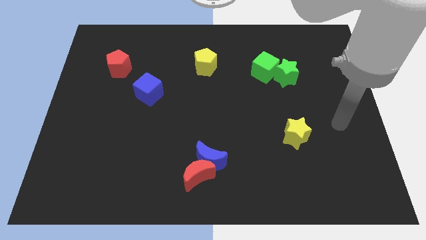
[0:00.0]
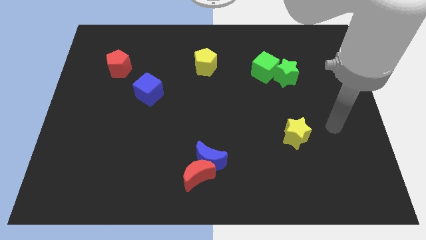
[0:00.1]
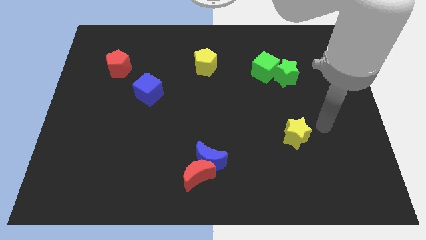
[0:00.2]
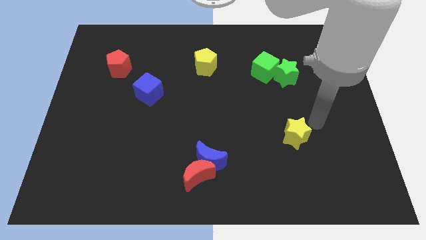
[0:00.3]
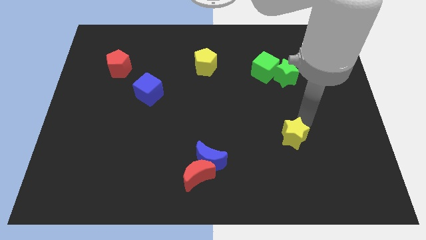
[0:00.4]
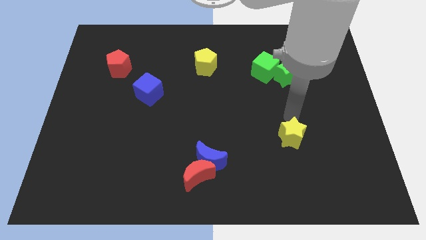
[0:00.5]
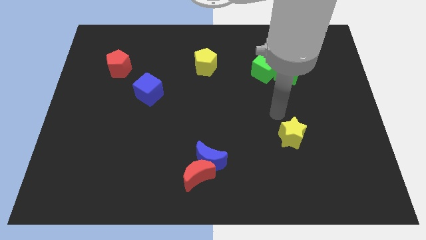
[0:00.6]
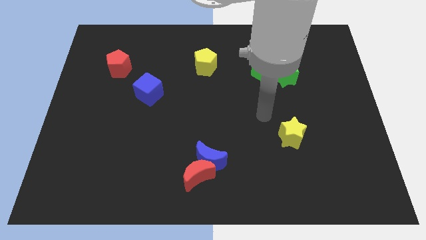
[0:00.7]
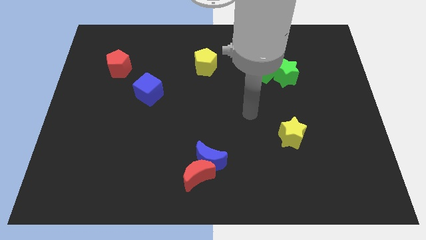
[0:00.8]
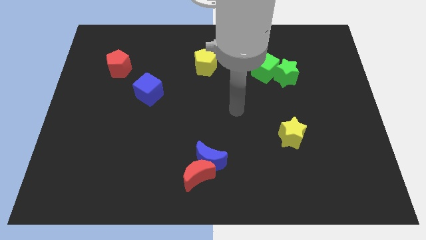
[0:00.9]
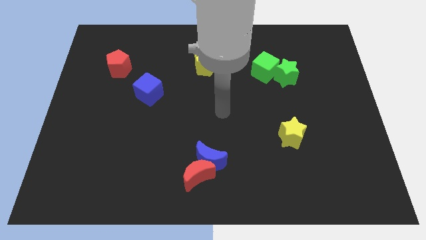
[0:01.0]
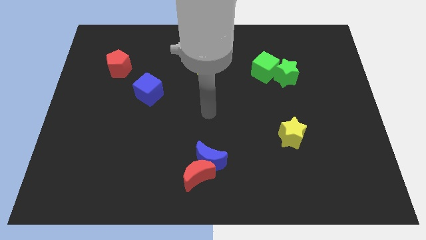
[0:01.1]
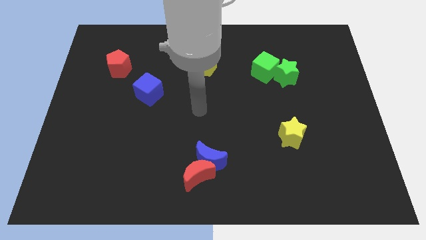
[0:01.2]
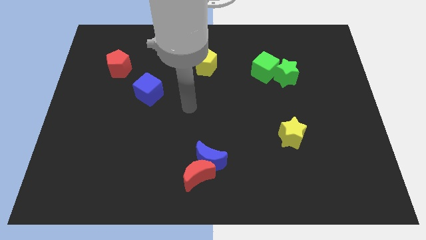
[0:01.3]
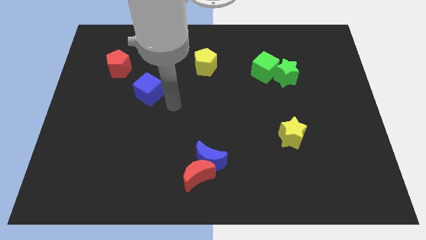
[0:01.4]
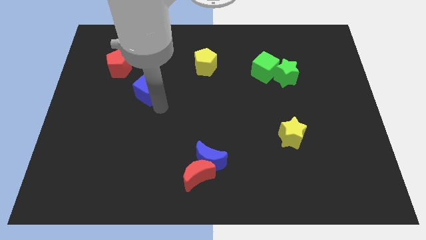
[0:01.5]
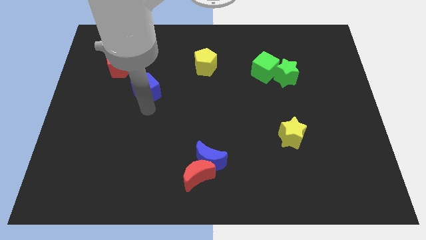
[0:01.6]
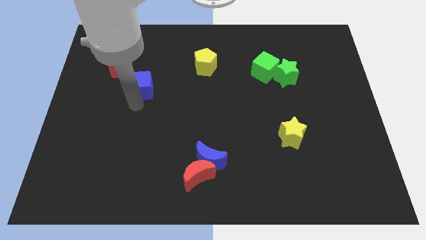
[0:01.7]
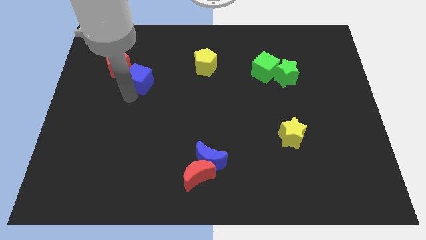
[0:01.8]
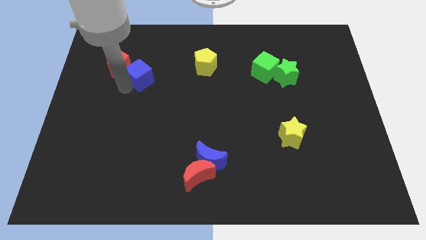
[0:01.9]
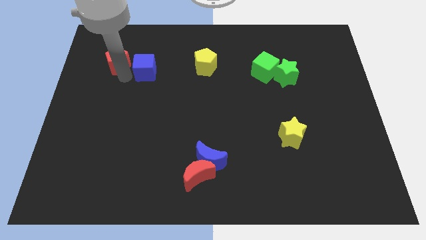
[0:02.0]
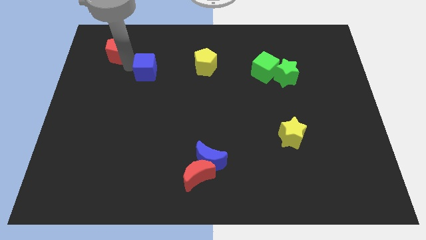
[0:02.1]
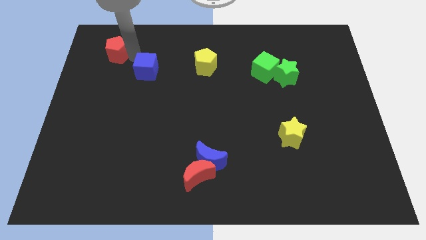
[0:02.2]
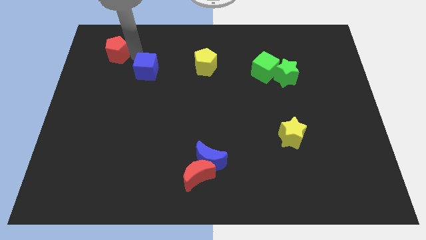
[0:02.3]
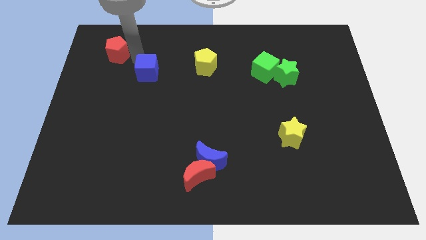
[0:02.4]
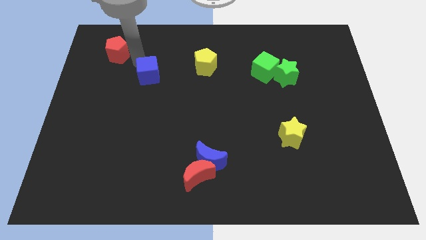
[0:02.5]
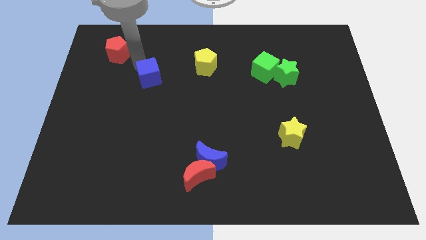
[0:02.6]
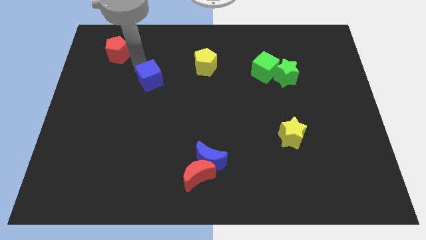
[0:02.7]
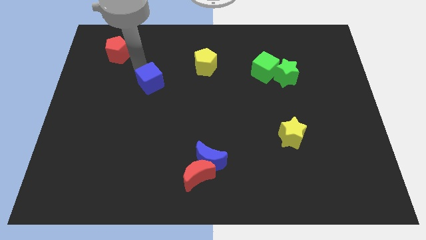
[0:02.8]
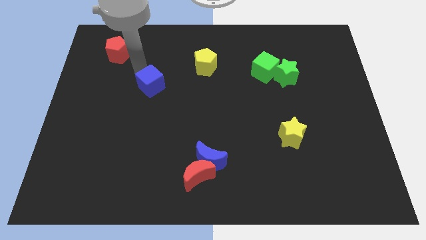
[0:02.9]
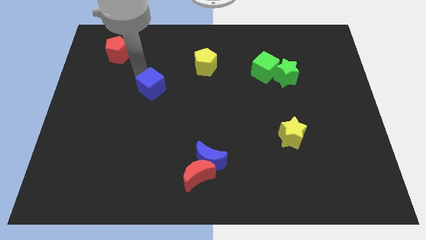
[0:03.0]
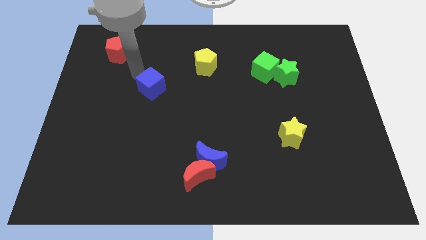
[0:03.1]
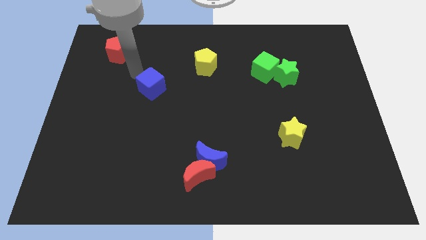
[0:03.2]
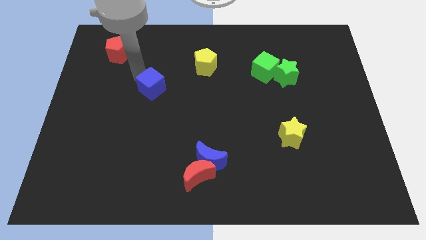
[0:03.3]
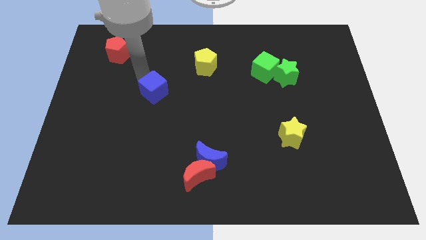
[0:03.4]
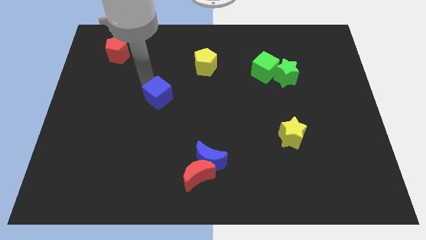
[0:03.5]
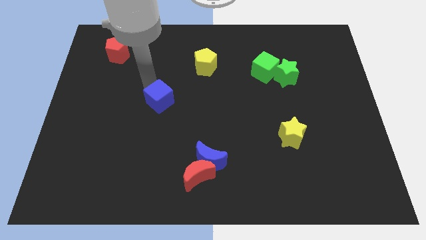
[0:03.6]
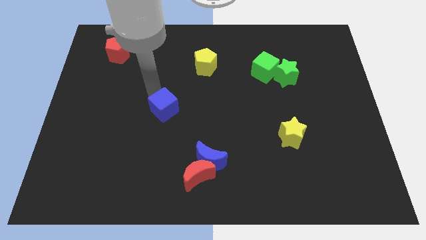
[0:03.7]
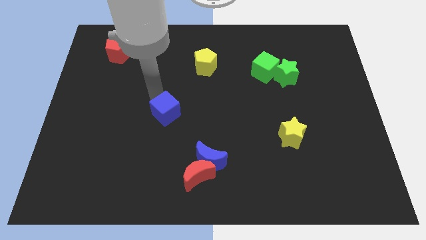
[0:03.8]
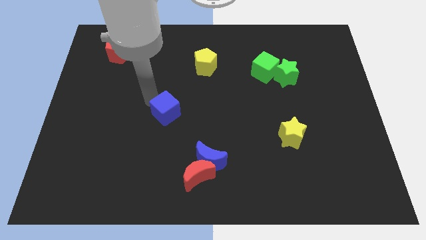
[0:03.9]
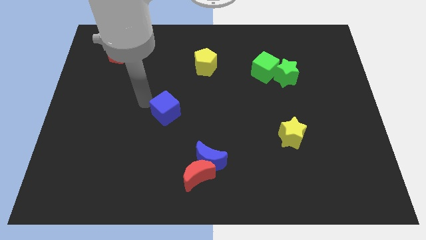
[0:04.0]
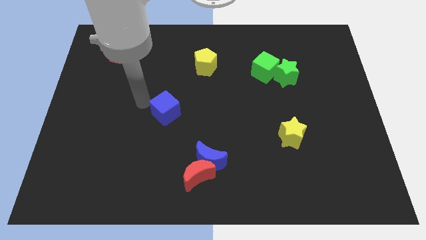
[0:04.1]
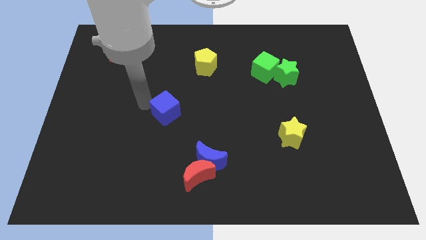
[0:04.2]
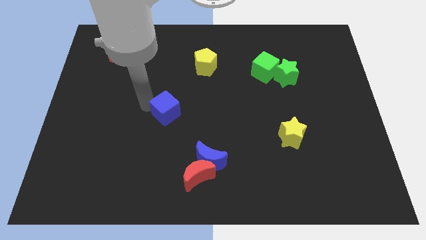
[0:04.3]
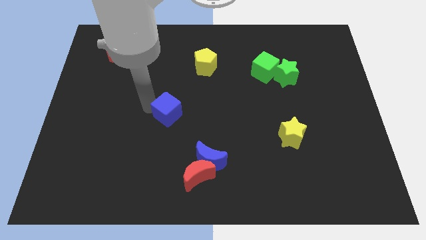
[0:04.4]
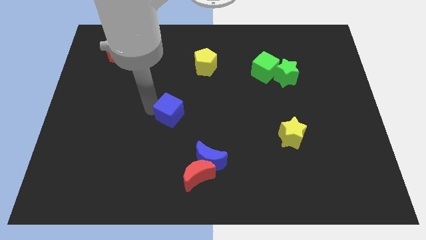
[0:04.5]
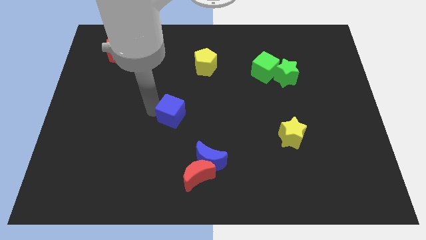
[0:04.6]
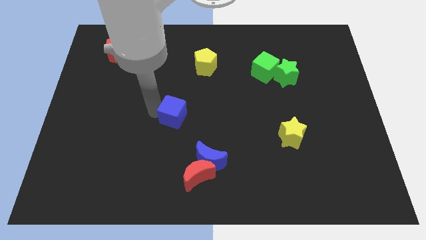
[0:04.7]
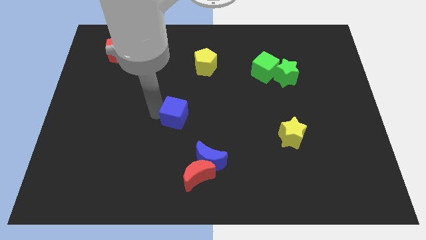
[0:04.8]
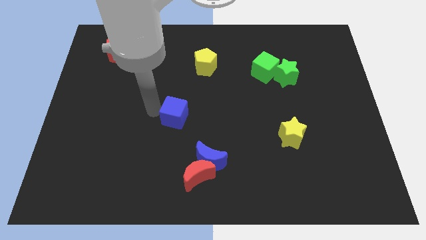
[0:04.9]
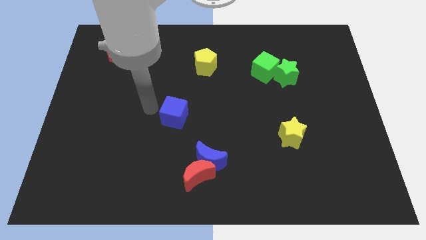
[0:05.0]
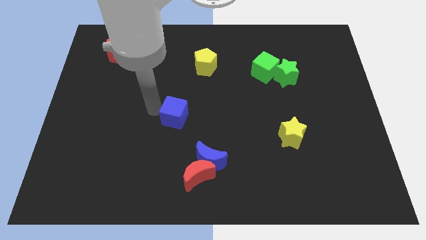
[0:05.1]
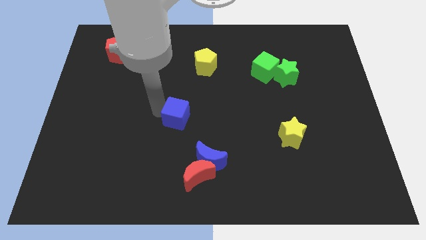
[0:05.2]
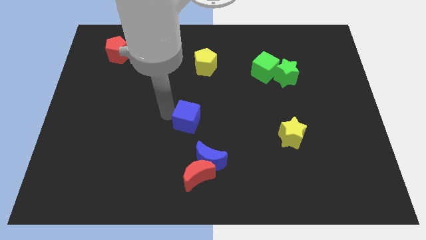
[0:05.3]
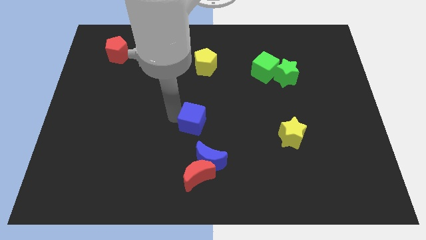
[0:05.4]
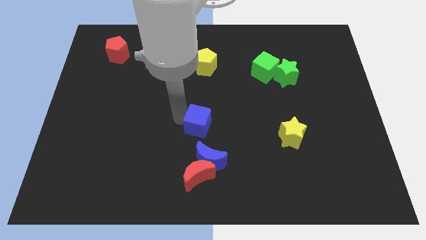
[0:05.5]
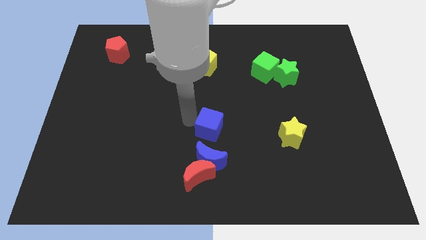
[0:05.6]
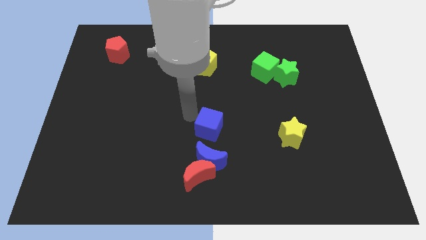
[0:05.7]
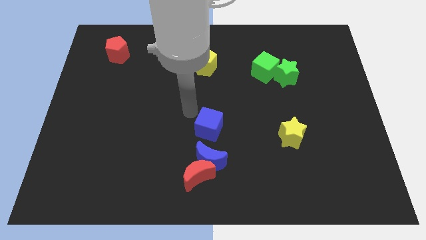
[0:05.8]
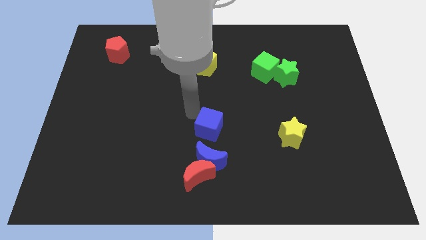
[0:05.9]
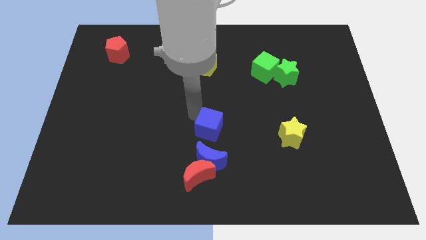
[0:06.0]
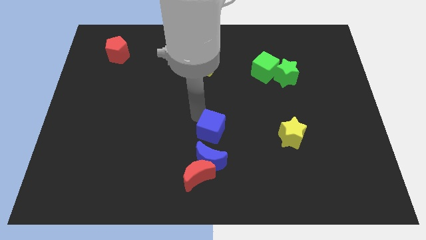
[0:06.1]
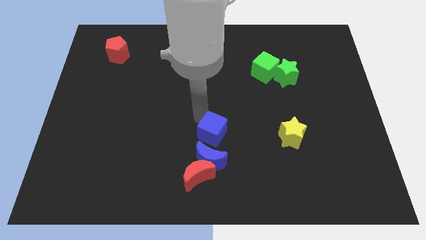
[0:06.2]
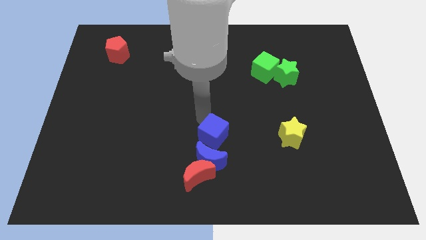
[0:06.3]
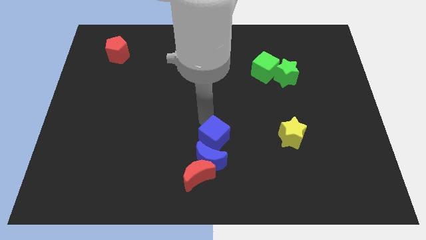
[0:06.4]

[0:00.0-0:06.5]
move the blue cube downwards and to the right

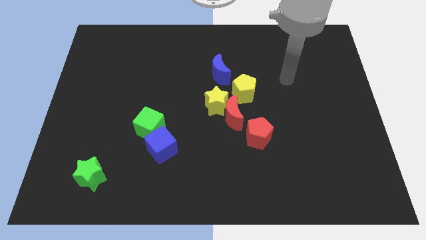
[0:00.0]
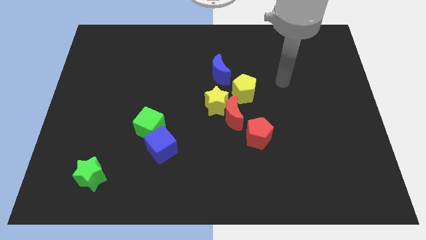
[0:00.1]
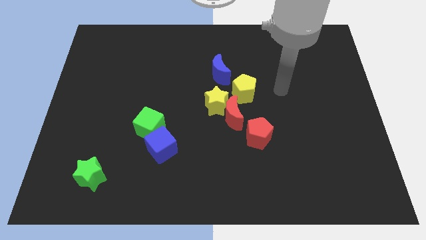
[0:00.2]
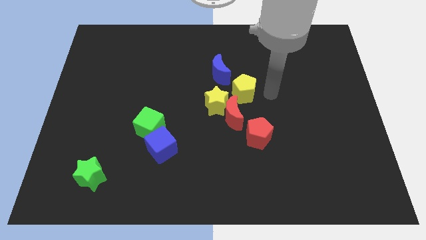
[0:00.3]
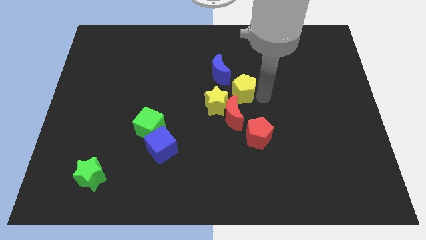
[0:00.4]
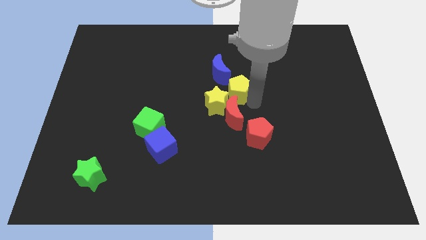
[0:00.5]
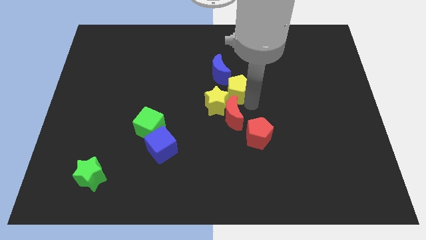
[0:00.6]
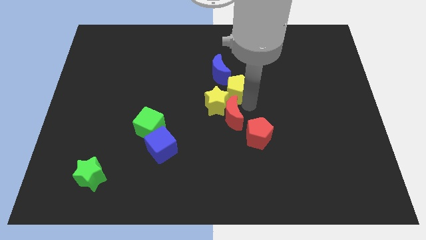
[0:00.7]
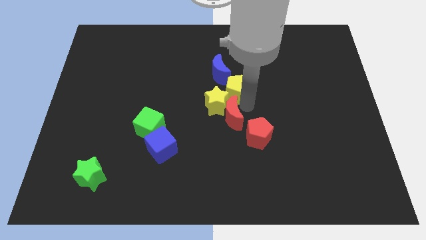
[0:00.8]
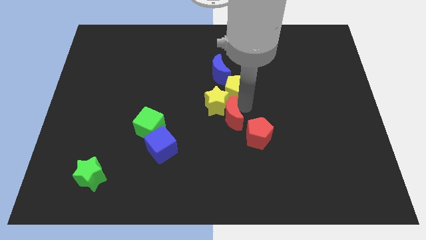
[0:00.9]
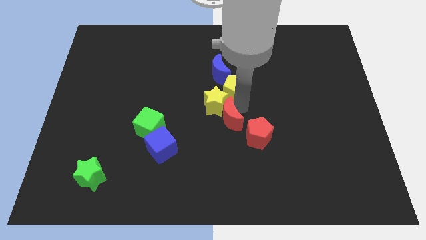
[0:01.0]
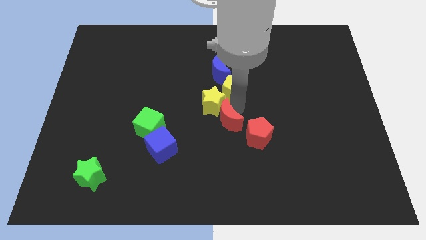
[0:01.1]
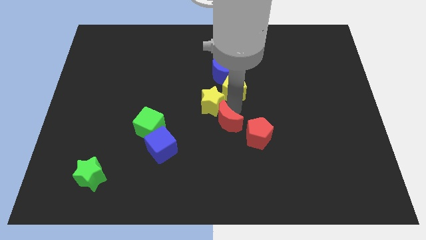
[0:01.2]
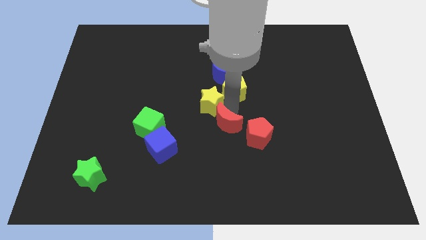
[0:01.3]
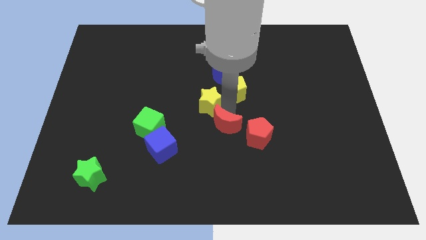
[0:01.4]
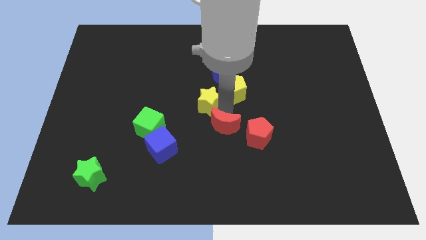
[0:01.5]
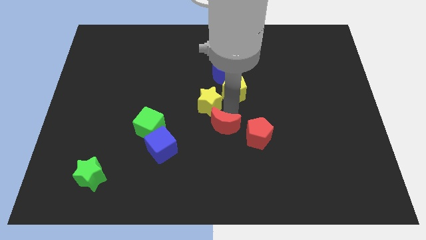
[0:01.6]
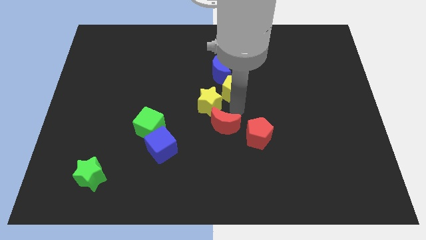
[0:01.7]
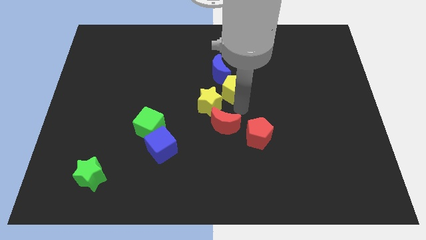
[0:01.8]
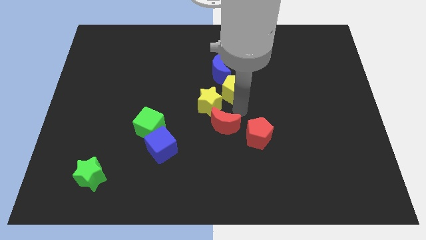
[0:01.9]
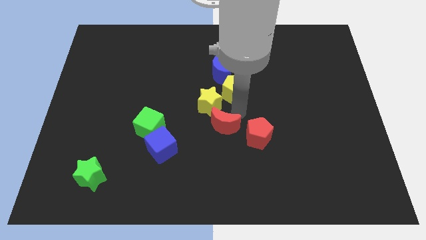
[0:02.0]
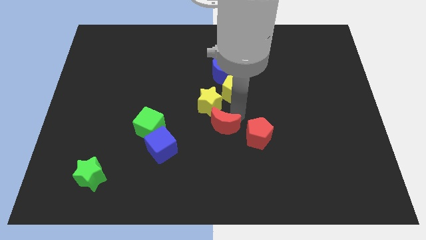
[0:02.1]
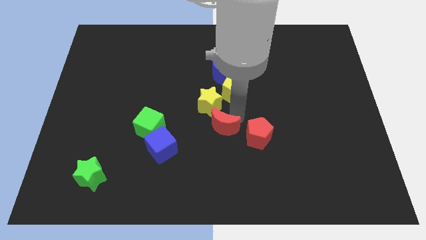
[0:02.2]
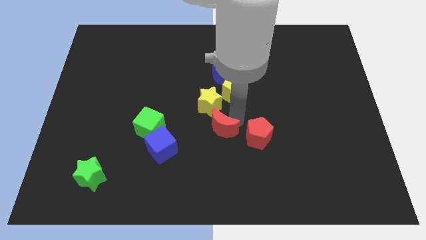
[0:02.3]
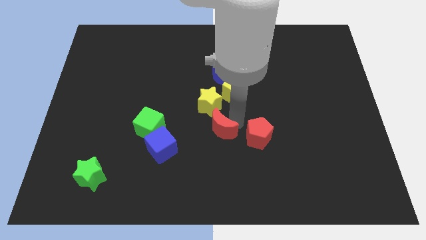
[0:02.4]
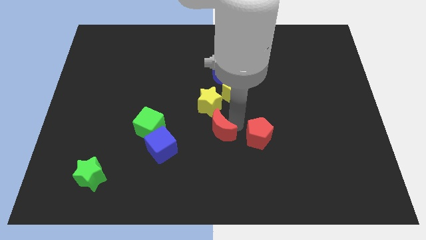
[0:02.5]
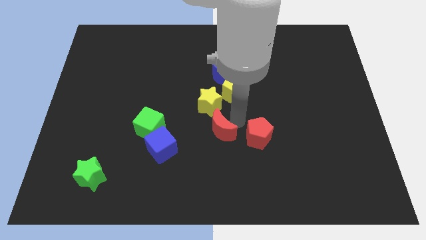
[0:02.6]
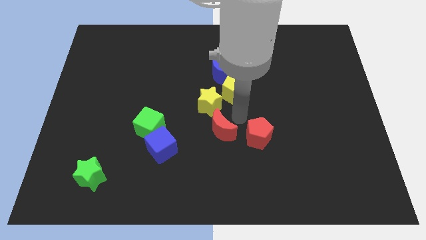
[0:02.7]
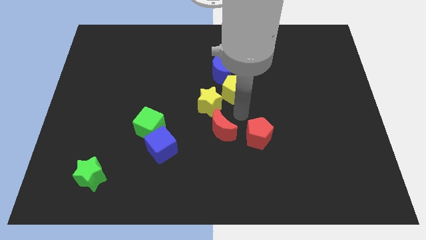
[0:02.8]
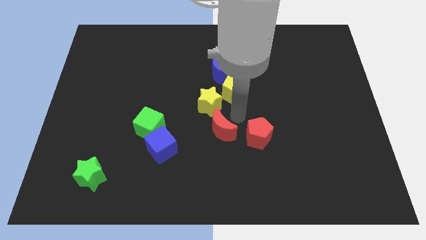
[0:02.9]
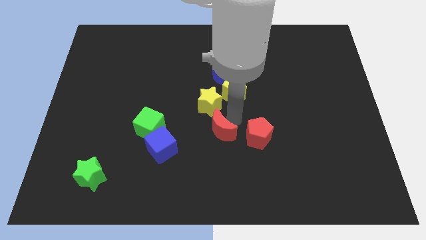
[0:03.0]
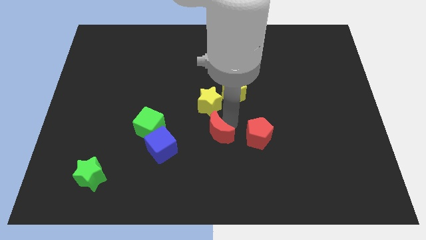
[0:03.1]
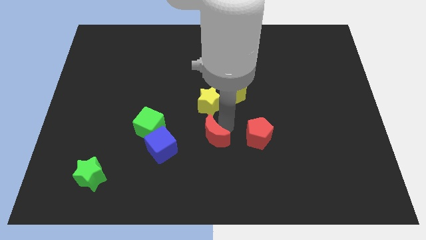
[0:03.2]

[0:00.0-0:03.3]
slide the red moon down and left a little bit
